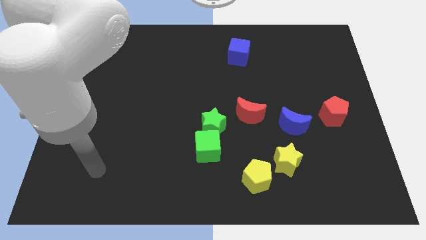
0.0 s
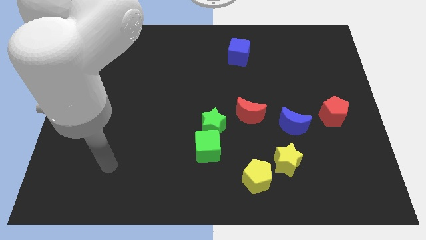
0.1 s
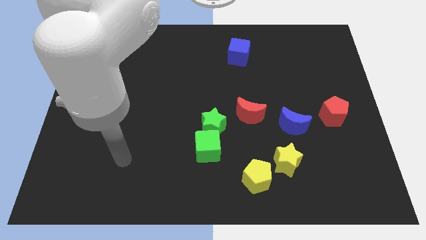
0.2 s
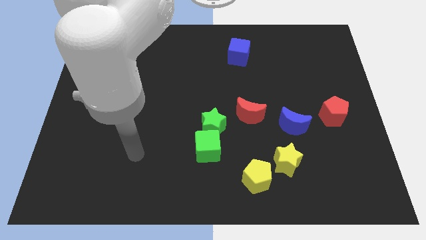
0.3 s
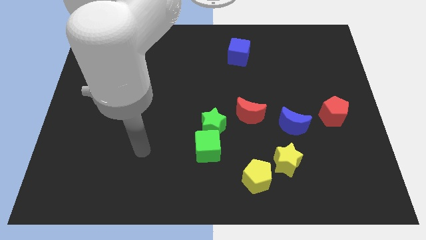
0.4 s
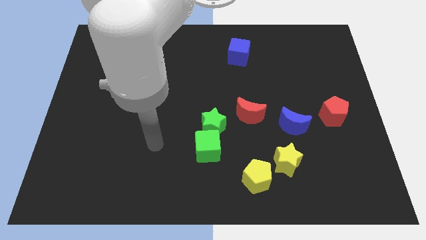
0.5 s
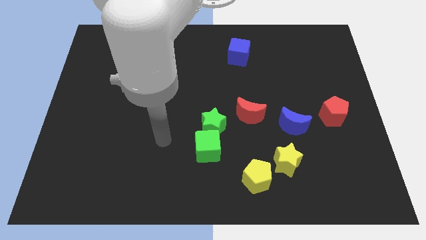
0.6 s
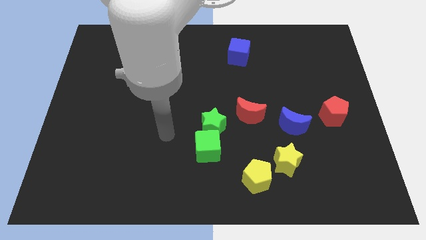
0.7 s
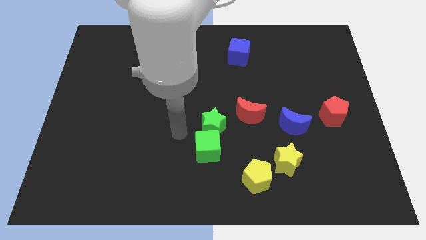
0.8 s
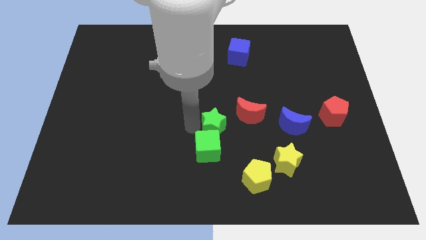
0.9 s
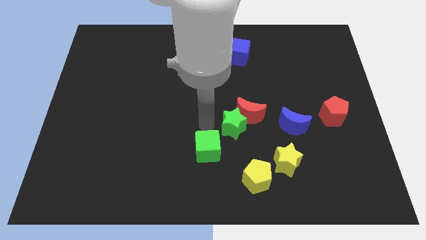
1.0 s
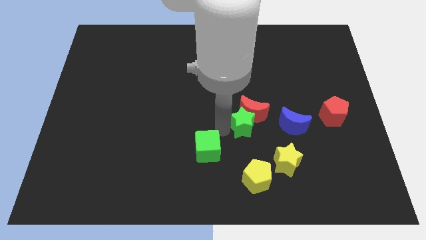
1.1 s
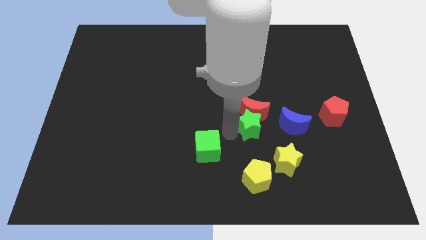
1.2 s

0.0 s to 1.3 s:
move the green cube away from the green star

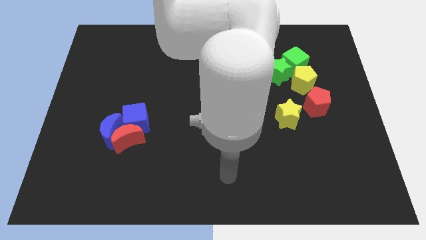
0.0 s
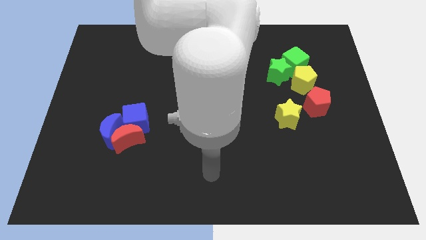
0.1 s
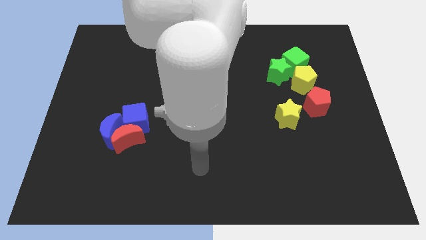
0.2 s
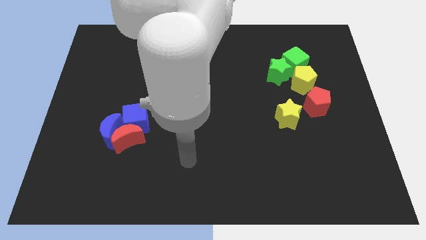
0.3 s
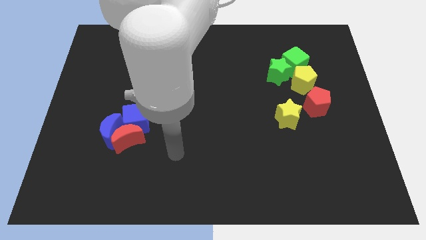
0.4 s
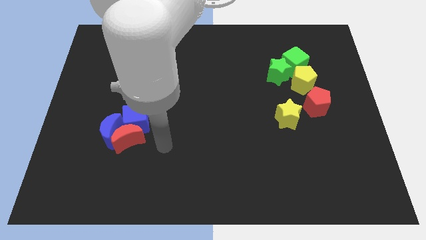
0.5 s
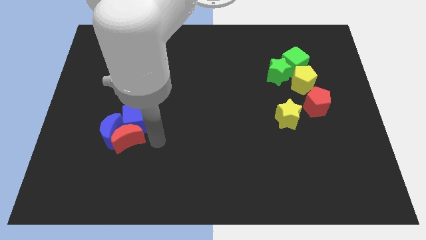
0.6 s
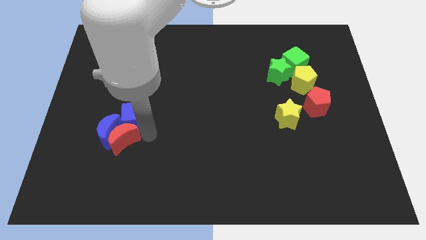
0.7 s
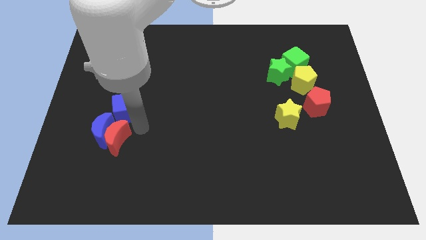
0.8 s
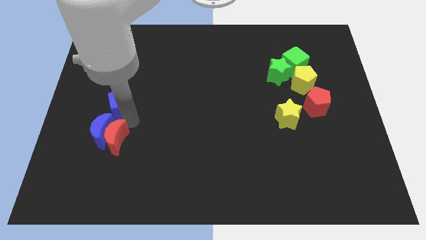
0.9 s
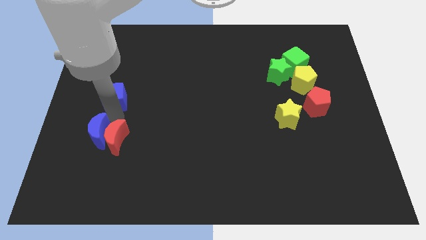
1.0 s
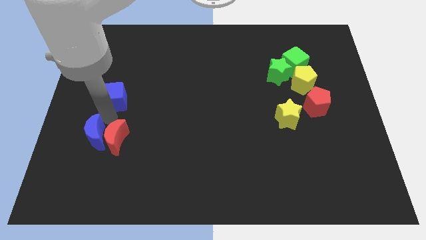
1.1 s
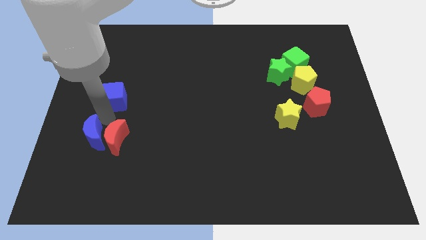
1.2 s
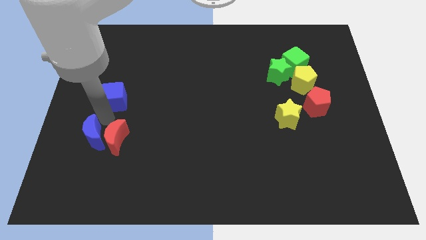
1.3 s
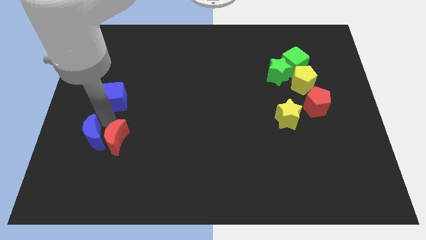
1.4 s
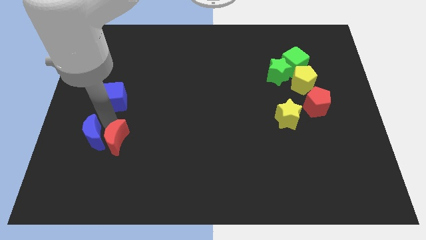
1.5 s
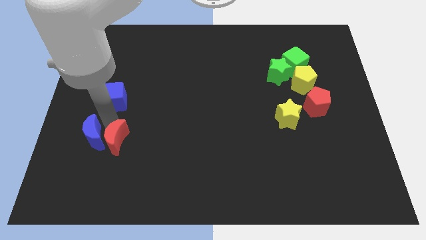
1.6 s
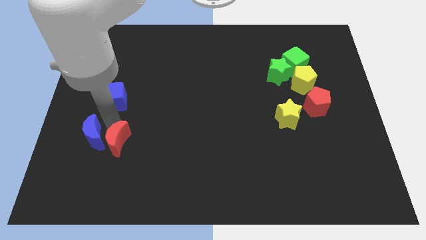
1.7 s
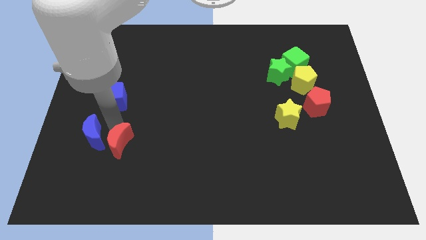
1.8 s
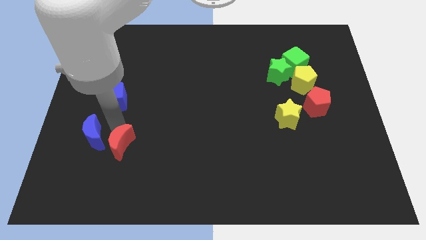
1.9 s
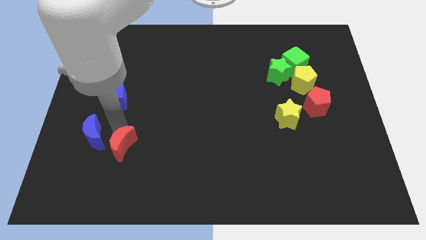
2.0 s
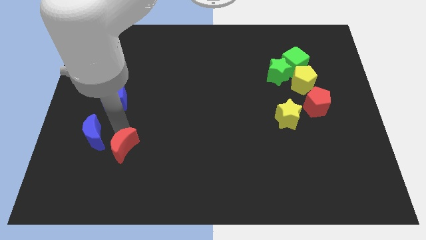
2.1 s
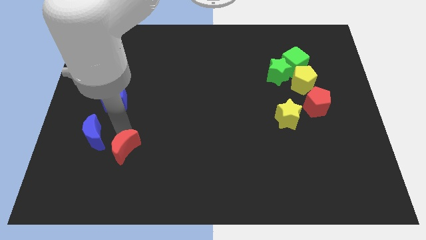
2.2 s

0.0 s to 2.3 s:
move the red moon away from the blue moon and blue cube

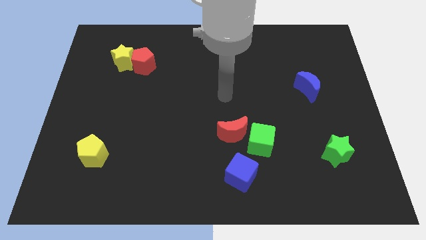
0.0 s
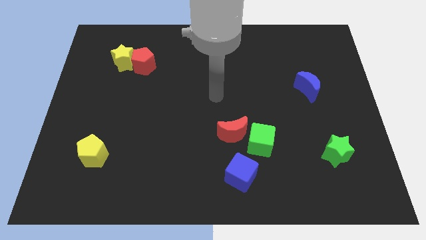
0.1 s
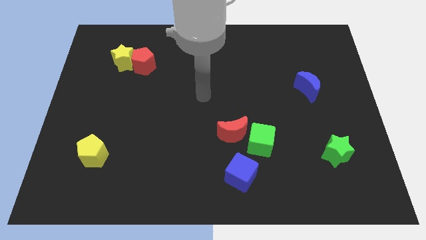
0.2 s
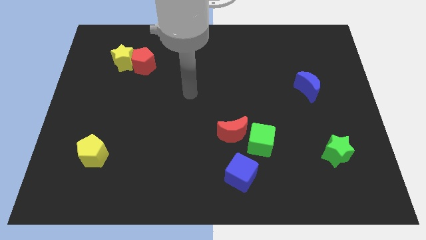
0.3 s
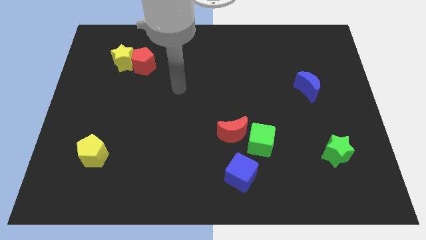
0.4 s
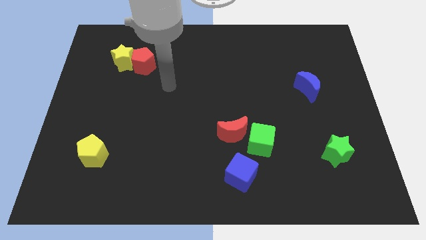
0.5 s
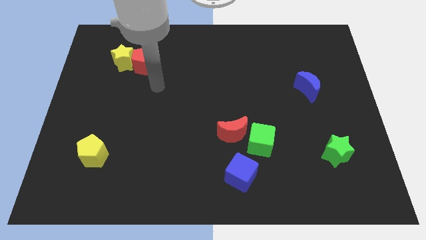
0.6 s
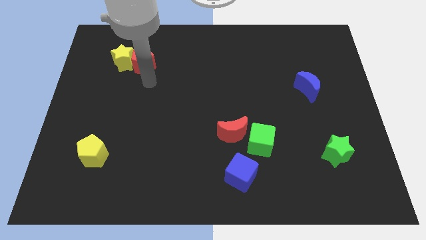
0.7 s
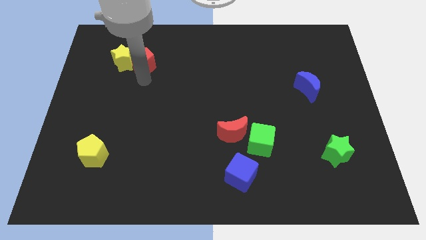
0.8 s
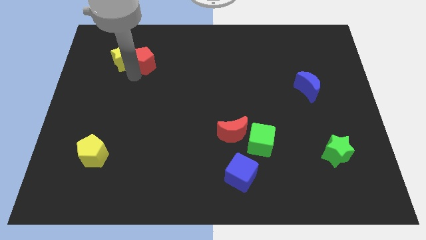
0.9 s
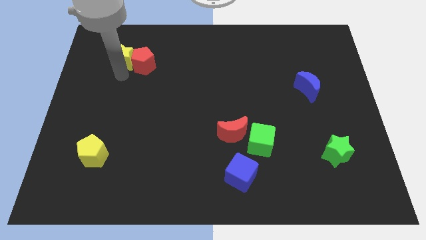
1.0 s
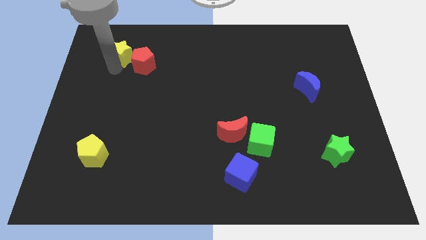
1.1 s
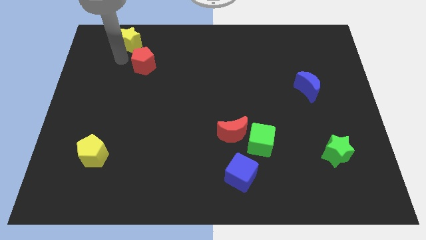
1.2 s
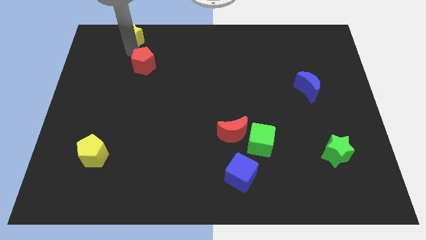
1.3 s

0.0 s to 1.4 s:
pull the red pentagon apart from the yellow star

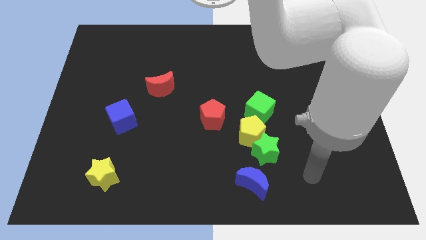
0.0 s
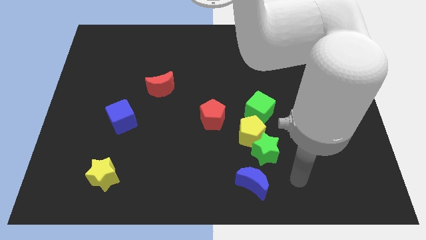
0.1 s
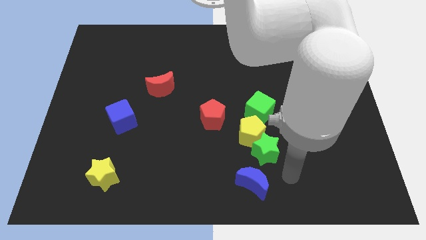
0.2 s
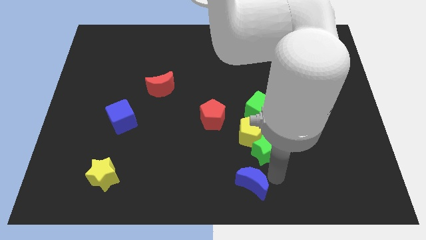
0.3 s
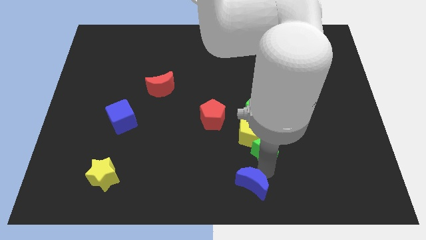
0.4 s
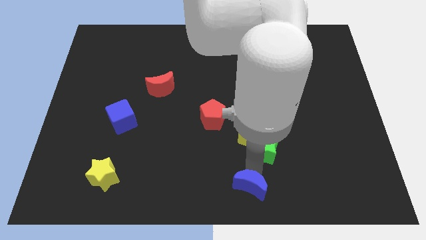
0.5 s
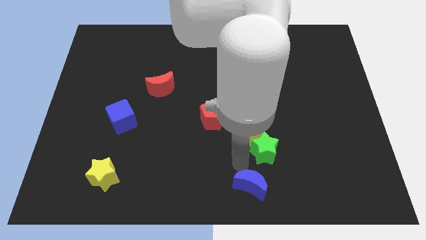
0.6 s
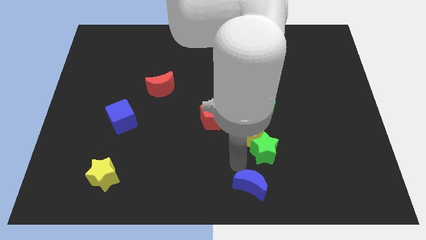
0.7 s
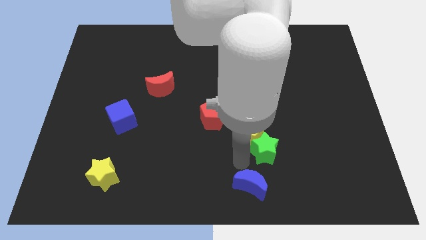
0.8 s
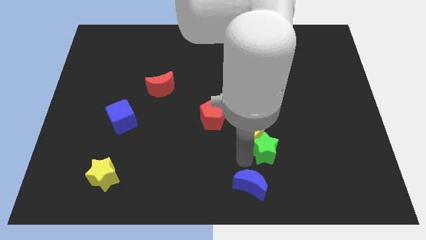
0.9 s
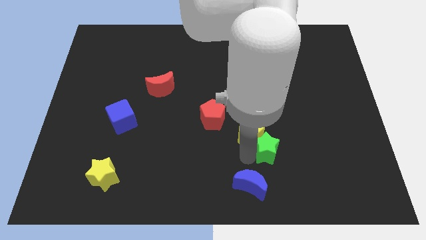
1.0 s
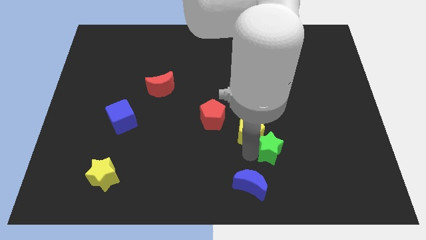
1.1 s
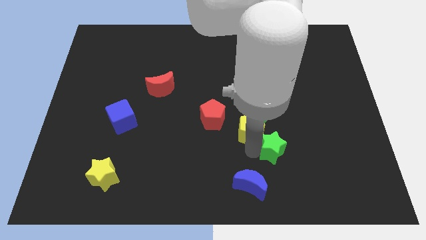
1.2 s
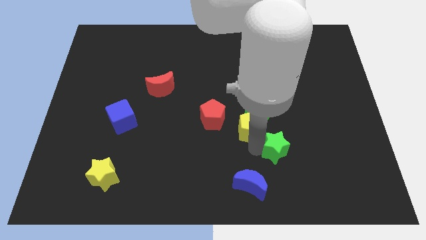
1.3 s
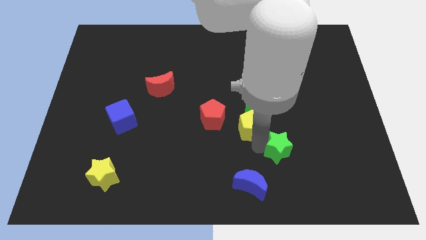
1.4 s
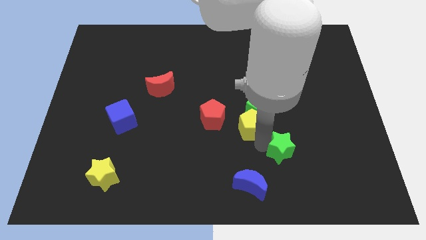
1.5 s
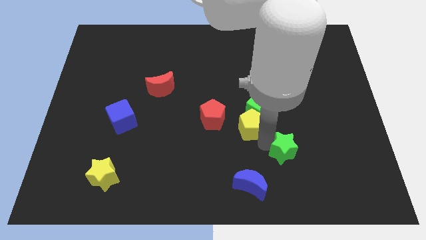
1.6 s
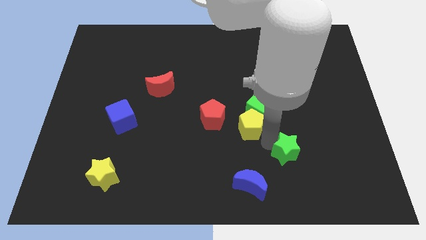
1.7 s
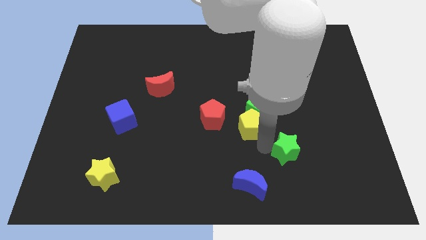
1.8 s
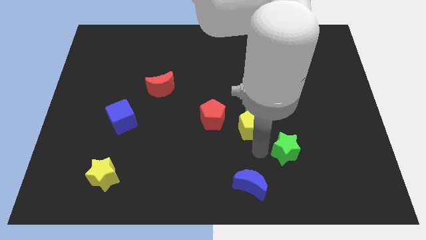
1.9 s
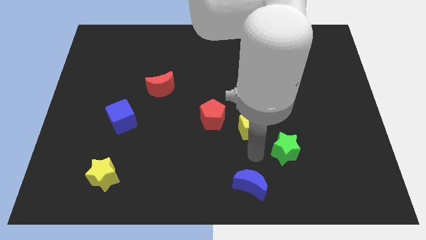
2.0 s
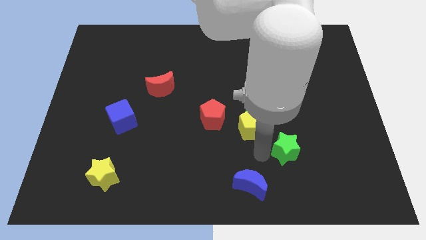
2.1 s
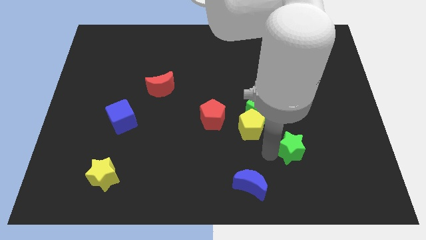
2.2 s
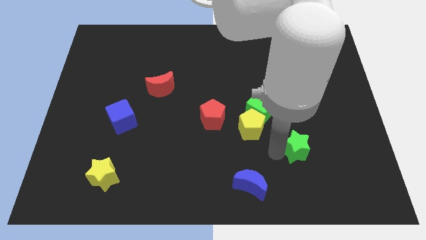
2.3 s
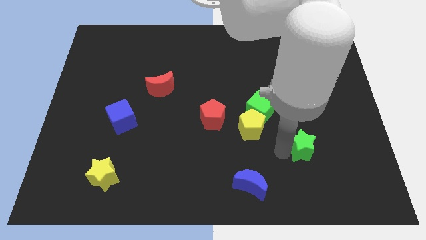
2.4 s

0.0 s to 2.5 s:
separate the green star from the yellow pentagon and blue moon

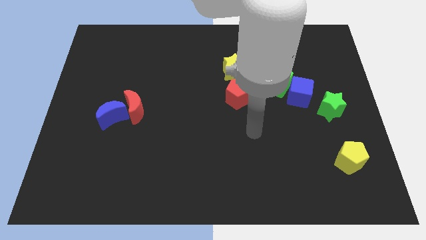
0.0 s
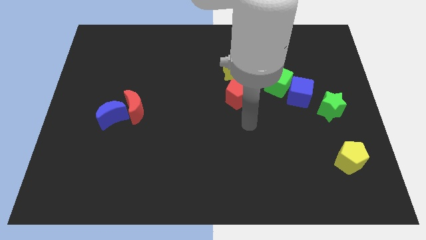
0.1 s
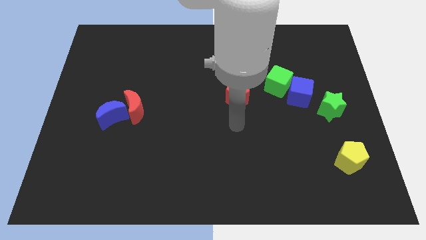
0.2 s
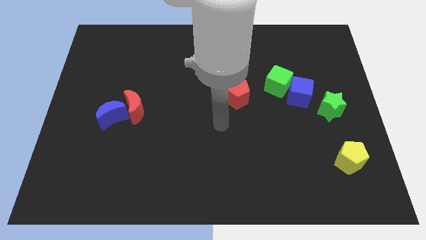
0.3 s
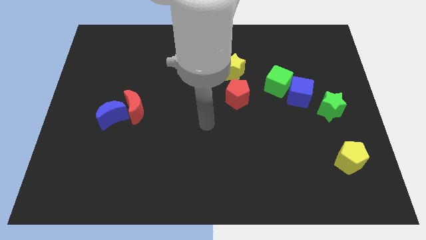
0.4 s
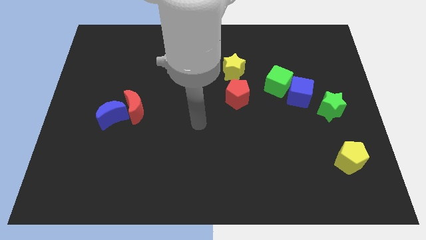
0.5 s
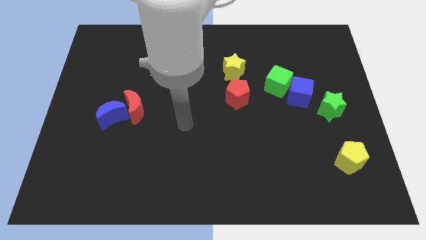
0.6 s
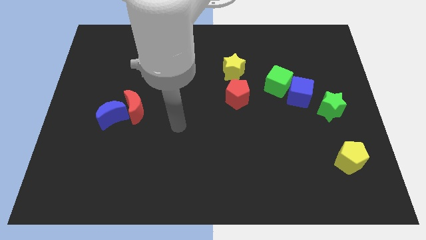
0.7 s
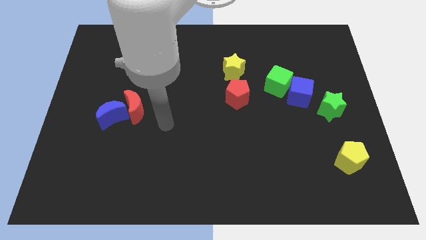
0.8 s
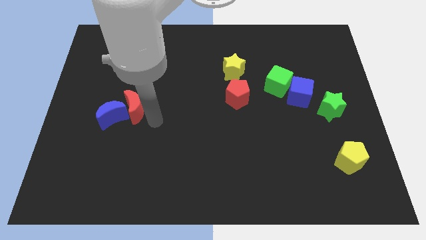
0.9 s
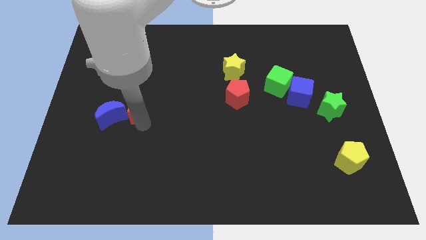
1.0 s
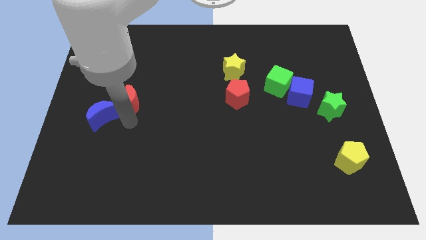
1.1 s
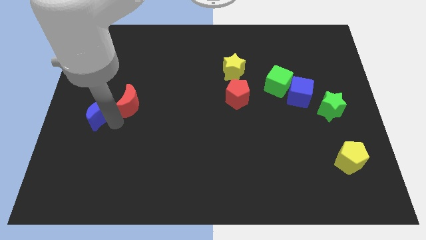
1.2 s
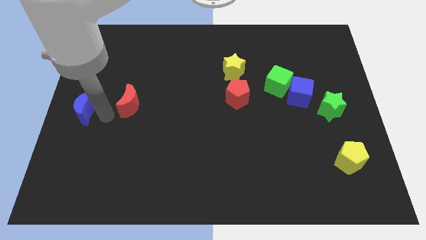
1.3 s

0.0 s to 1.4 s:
pull the red moon apart from the blue moon

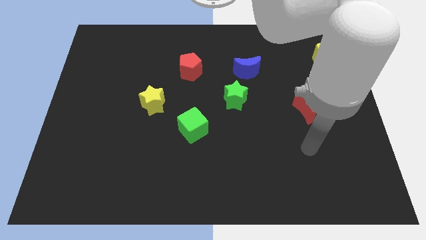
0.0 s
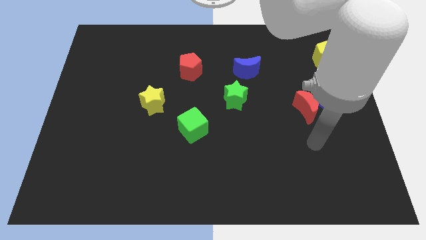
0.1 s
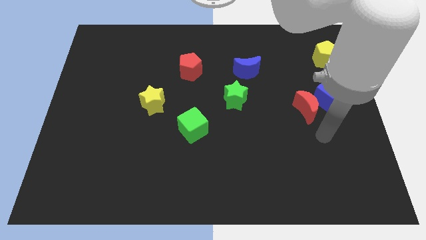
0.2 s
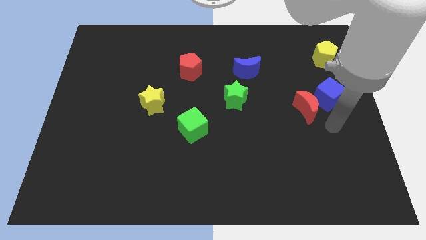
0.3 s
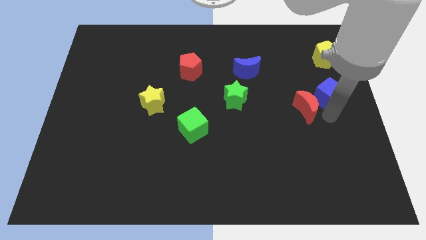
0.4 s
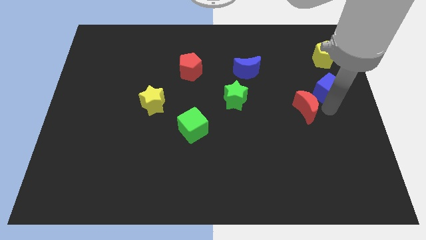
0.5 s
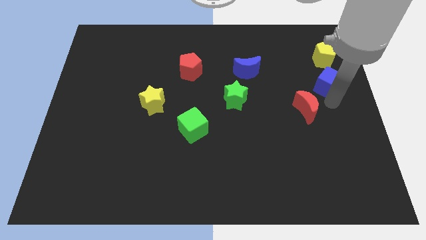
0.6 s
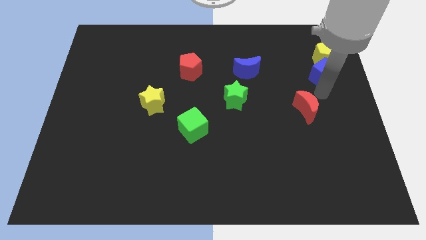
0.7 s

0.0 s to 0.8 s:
move the red moon away from the blue cube
